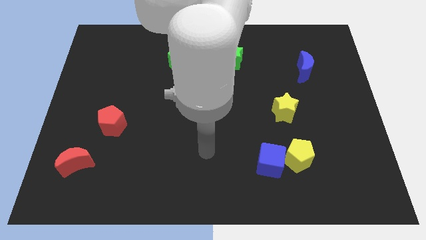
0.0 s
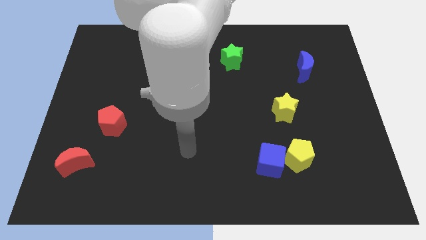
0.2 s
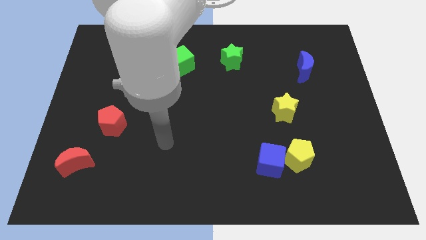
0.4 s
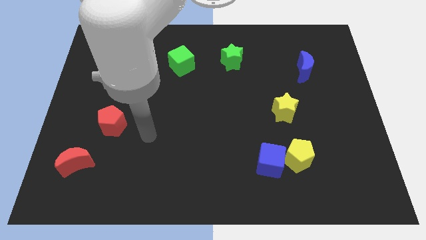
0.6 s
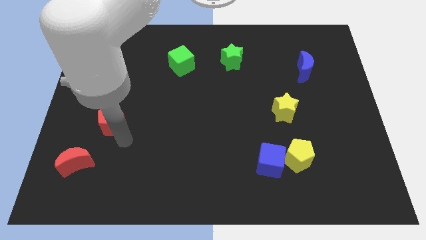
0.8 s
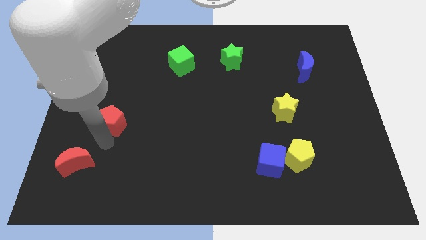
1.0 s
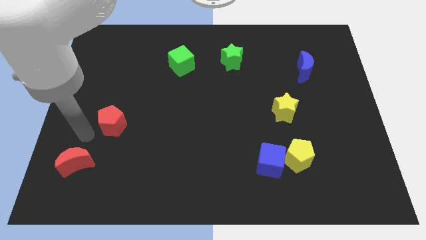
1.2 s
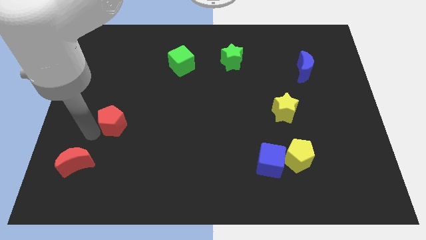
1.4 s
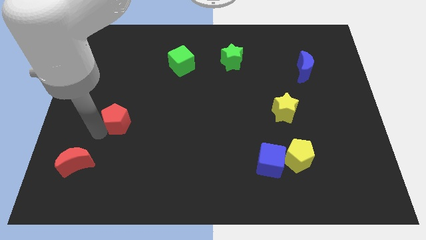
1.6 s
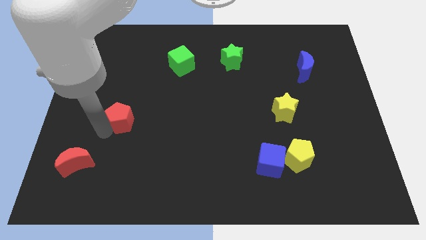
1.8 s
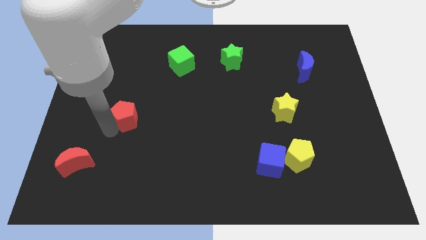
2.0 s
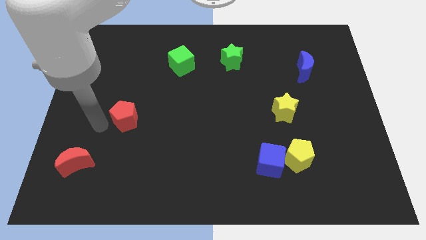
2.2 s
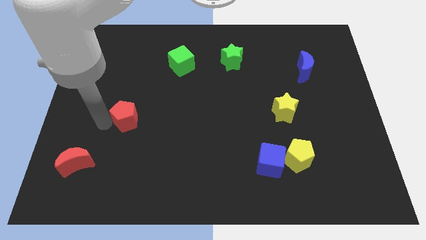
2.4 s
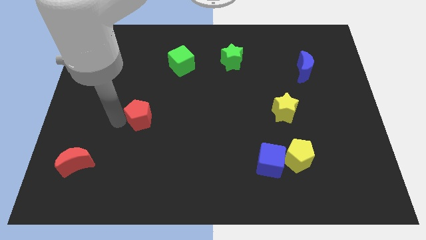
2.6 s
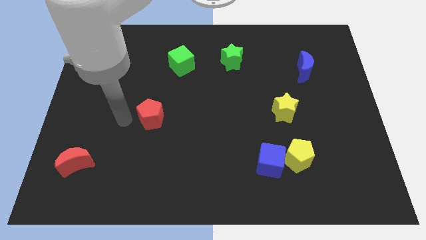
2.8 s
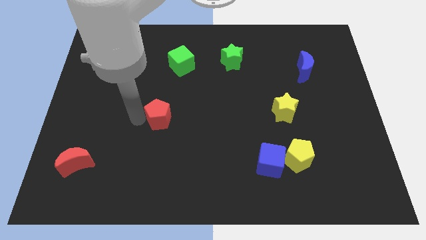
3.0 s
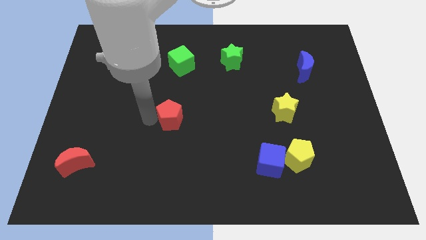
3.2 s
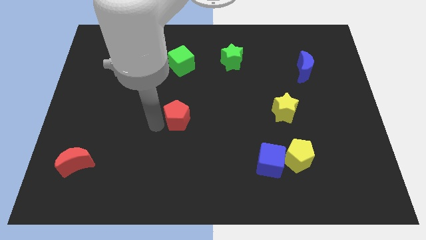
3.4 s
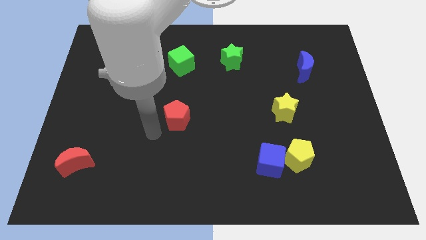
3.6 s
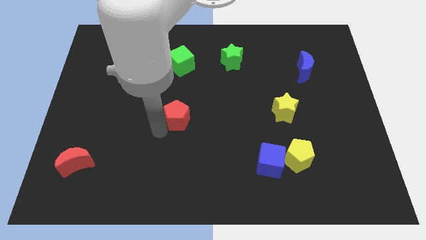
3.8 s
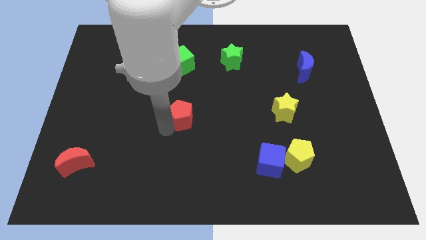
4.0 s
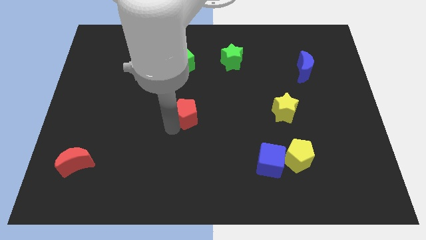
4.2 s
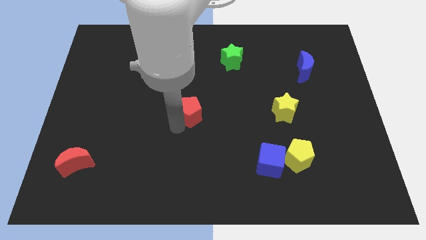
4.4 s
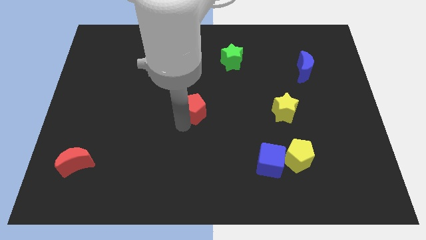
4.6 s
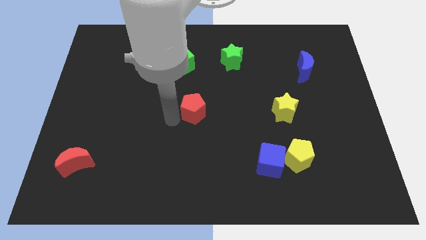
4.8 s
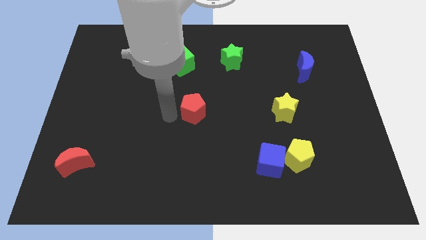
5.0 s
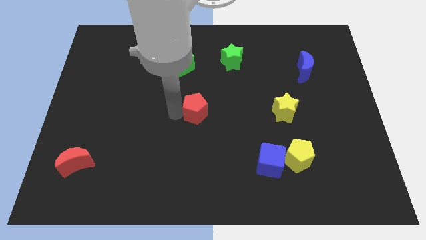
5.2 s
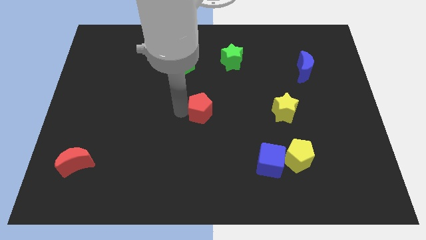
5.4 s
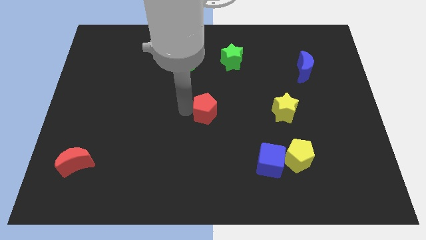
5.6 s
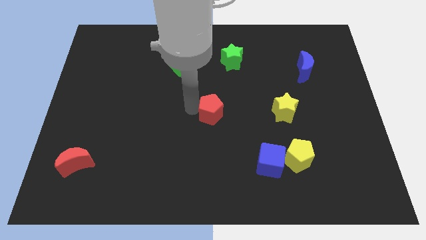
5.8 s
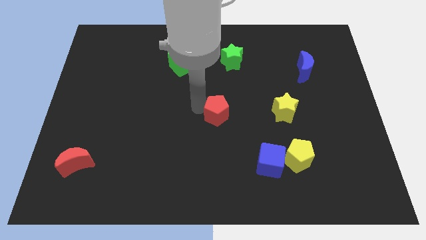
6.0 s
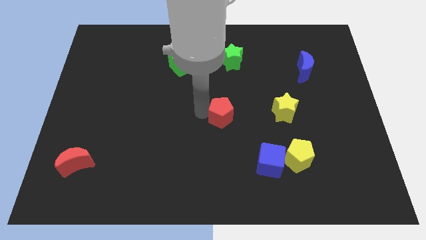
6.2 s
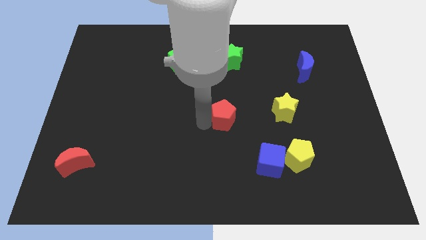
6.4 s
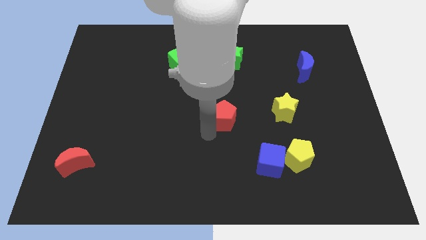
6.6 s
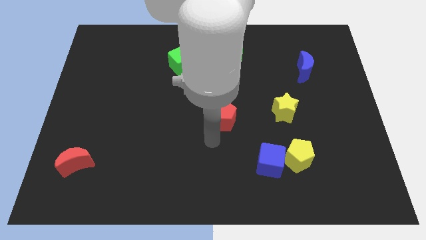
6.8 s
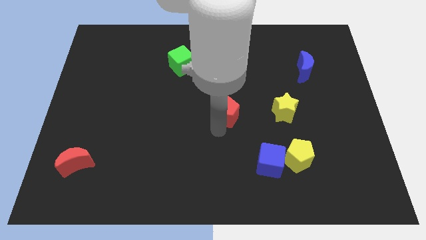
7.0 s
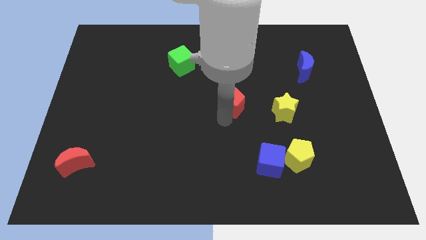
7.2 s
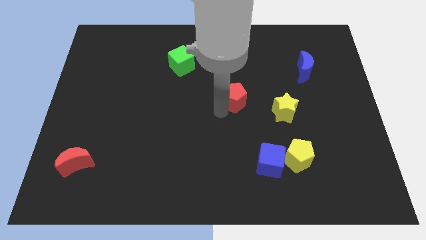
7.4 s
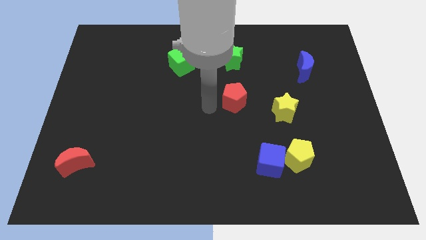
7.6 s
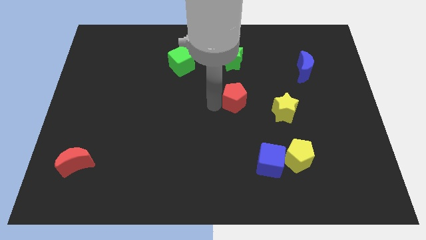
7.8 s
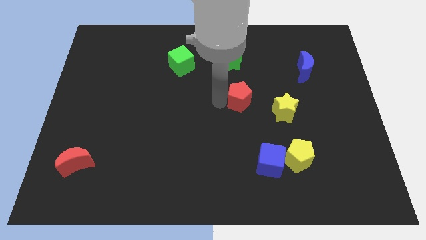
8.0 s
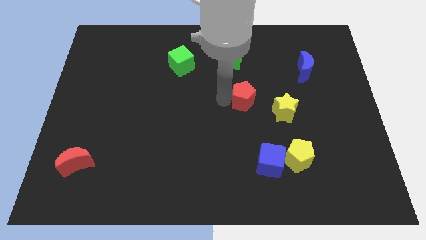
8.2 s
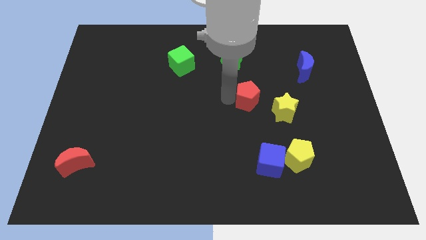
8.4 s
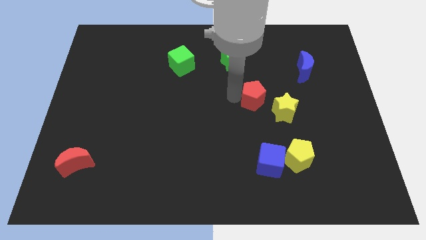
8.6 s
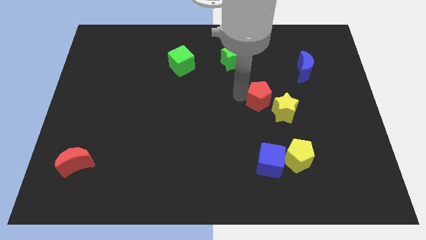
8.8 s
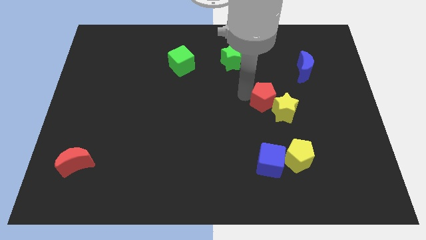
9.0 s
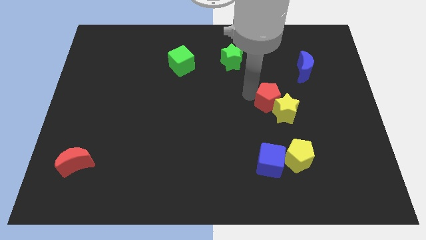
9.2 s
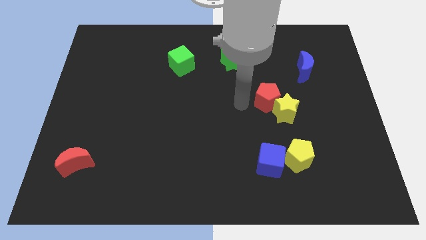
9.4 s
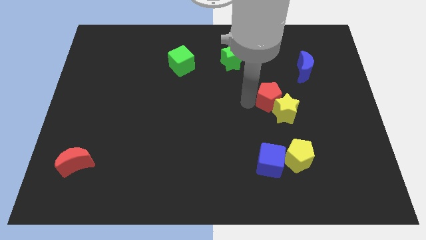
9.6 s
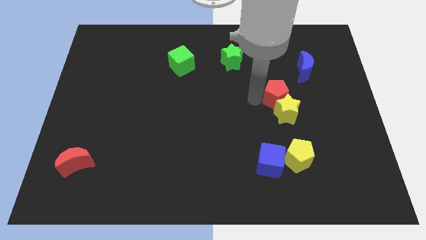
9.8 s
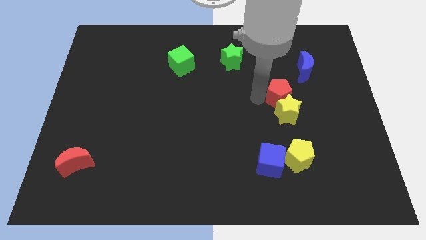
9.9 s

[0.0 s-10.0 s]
move the red pentagon to the top right side of the yellow star

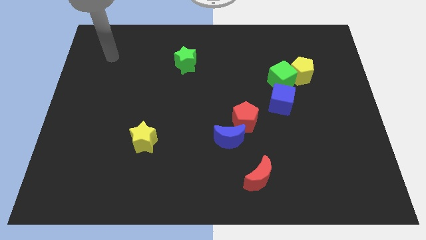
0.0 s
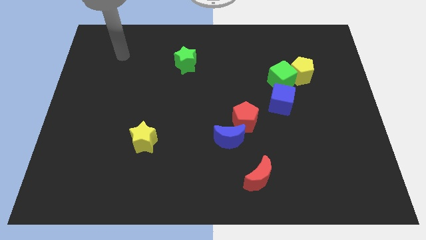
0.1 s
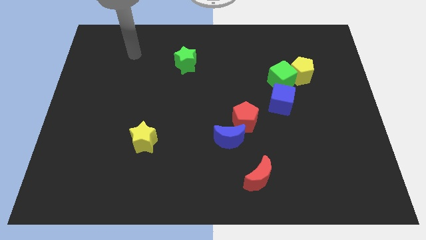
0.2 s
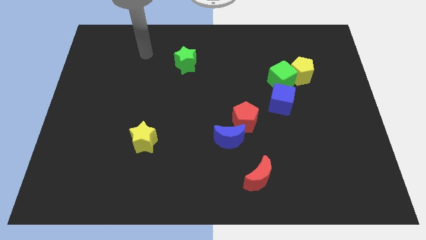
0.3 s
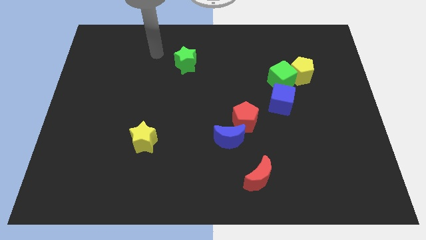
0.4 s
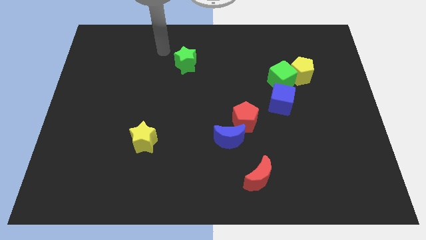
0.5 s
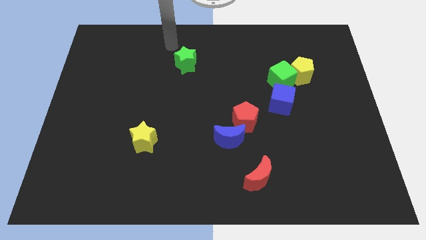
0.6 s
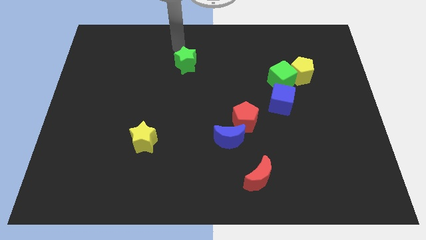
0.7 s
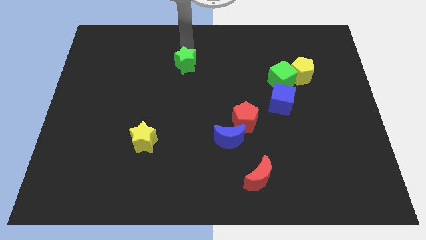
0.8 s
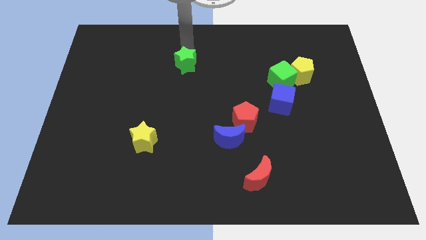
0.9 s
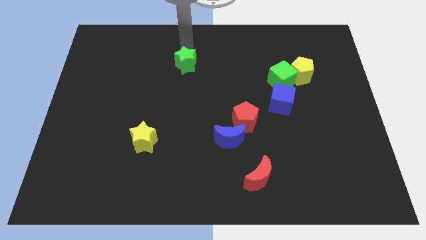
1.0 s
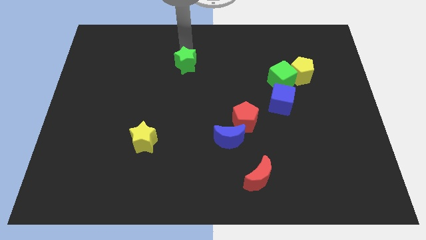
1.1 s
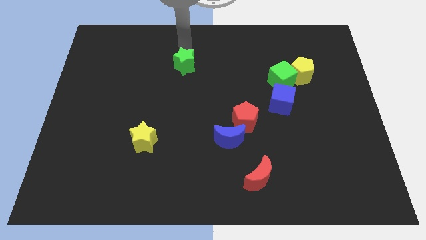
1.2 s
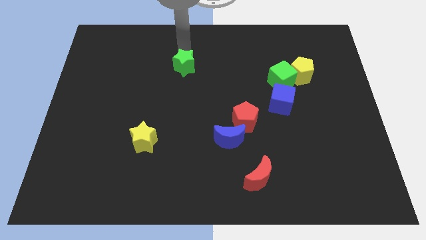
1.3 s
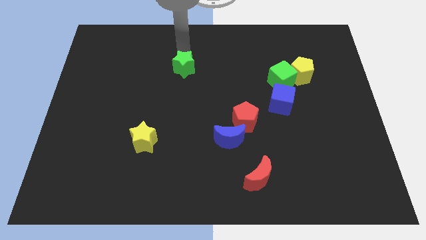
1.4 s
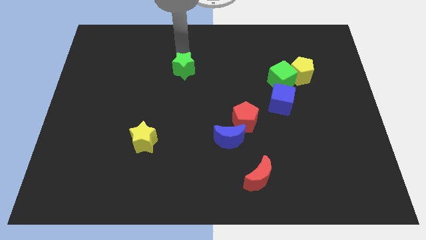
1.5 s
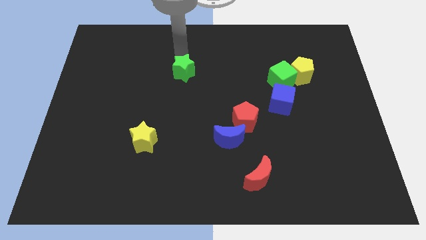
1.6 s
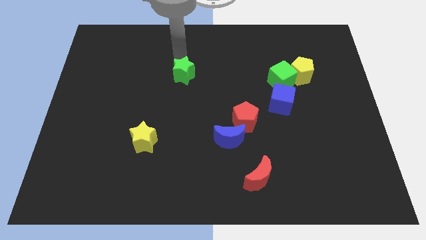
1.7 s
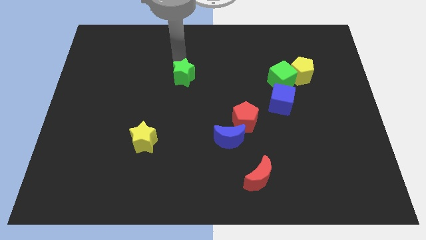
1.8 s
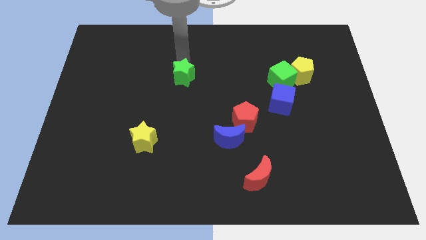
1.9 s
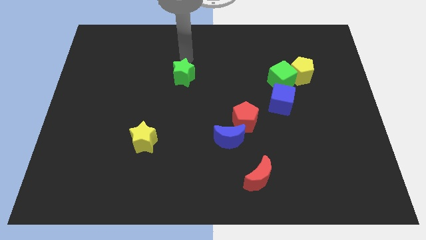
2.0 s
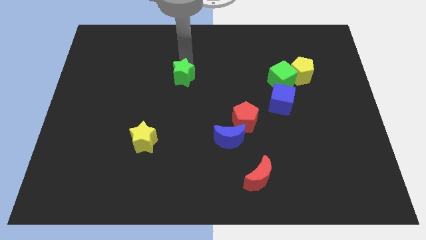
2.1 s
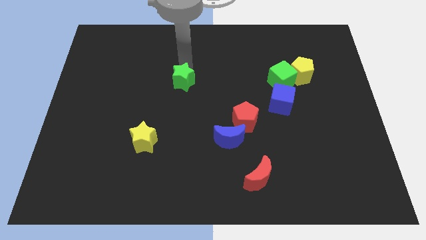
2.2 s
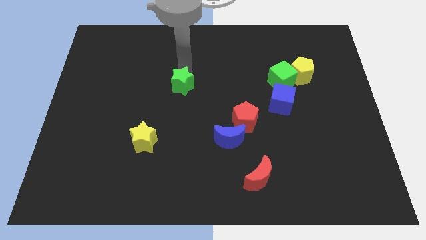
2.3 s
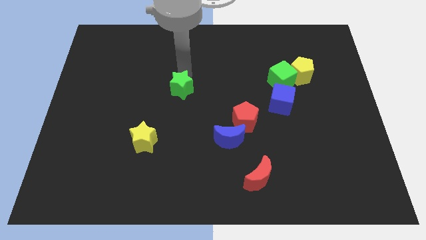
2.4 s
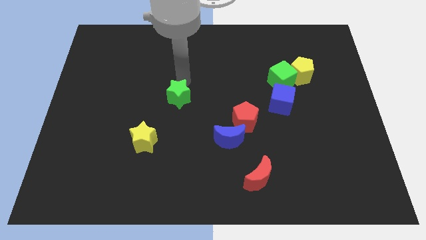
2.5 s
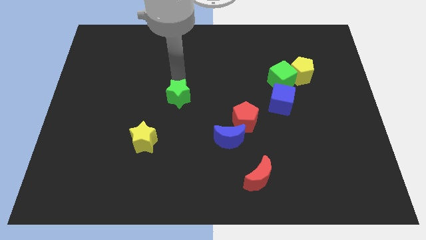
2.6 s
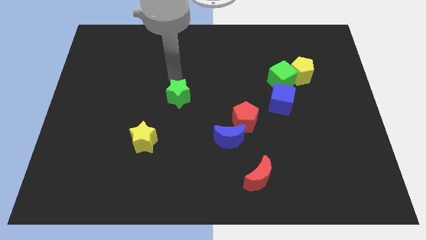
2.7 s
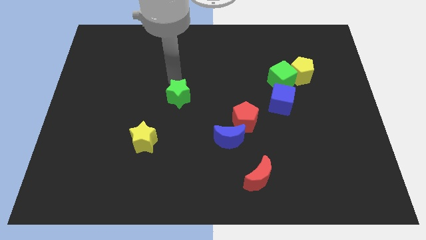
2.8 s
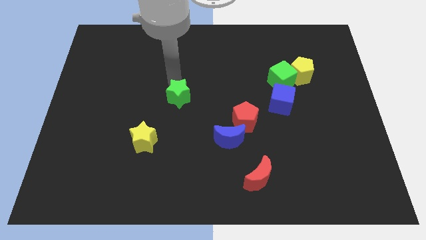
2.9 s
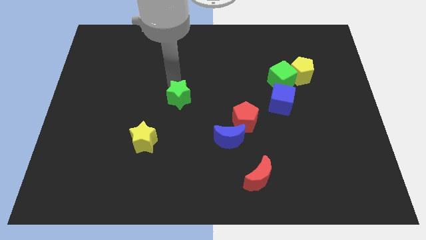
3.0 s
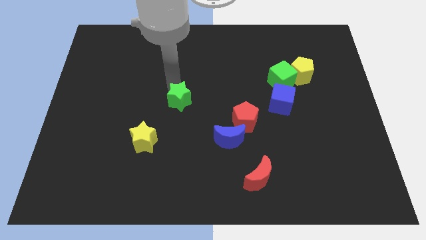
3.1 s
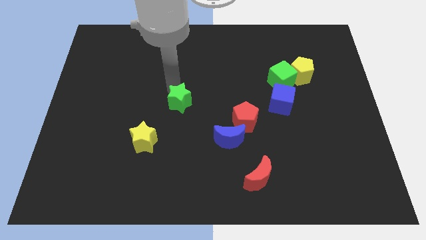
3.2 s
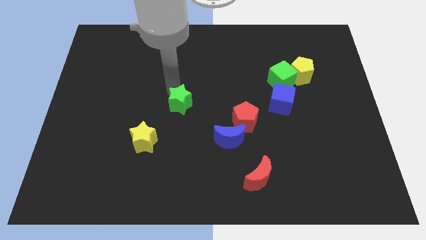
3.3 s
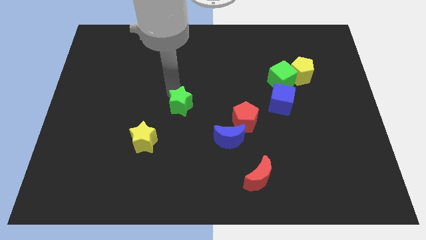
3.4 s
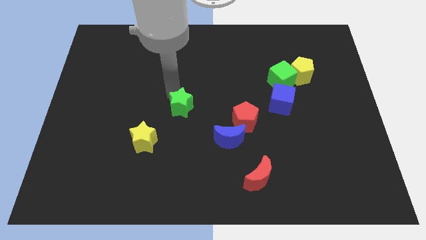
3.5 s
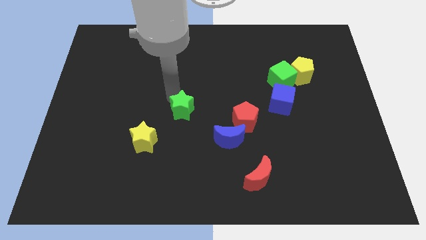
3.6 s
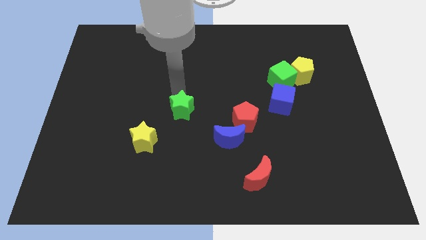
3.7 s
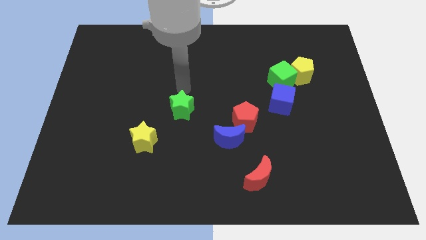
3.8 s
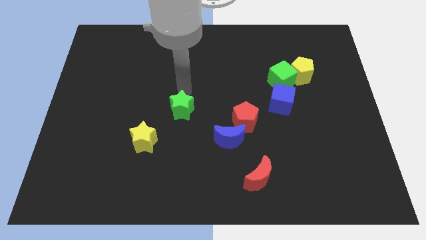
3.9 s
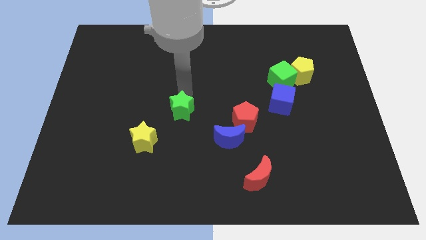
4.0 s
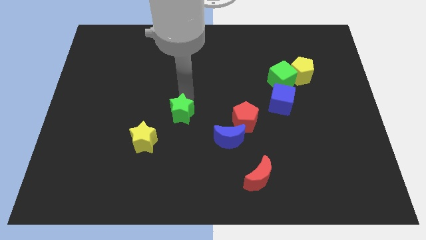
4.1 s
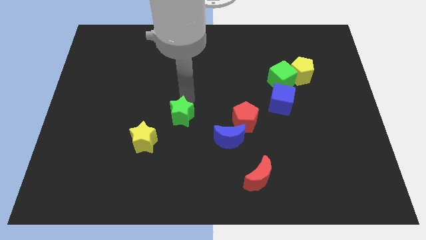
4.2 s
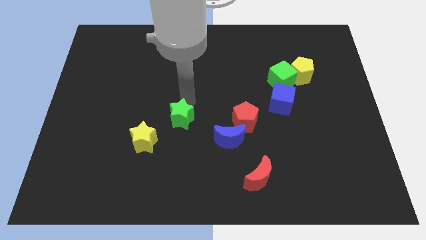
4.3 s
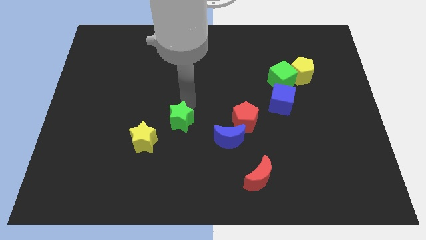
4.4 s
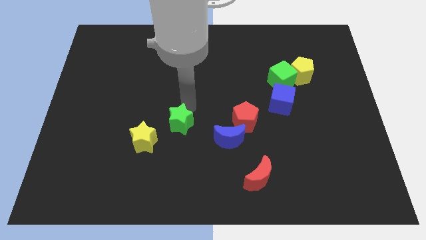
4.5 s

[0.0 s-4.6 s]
move the green star left of the blue moon
